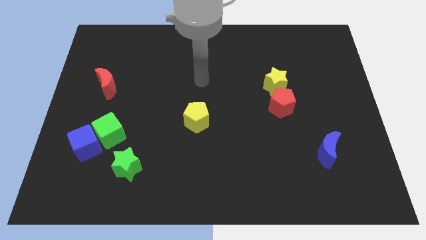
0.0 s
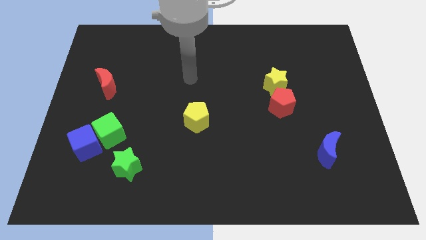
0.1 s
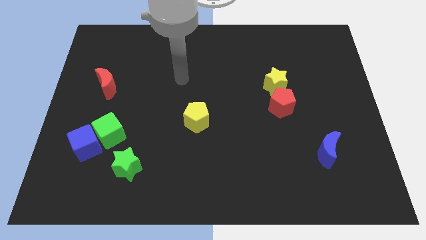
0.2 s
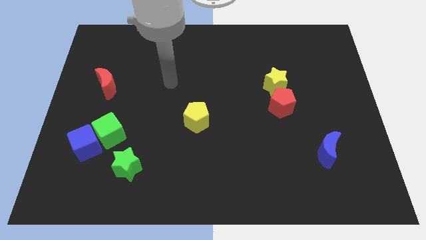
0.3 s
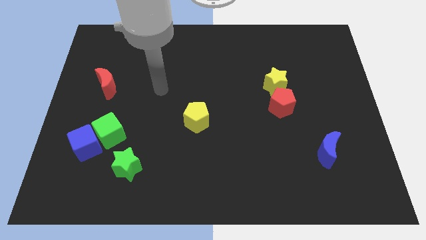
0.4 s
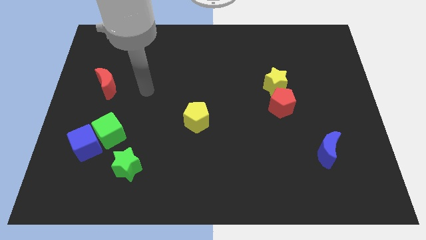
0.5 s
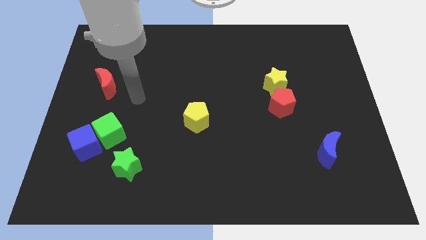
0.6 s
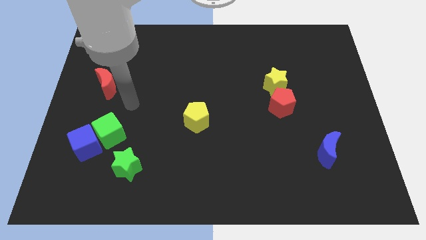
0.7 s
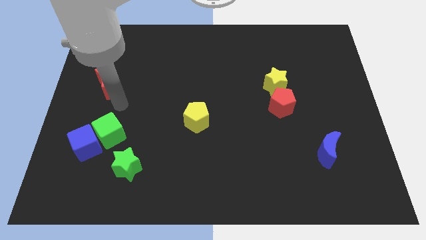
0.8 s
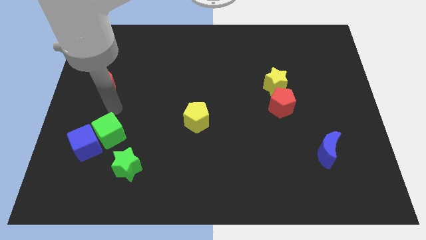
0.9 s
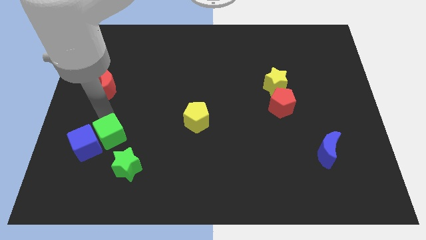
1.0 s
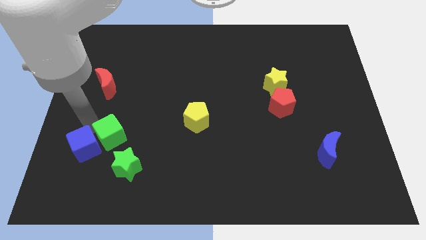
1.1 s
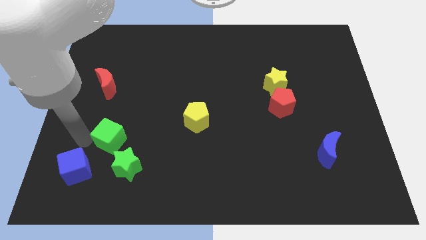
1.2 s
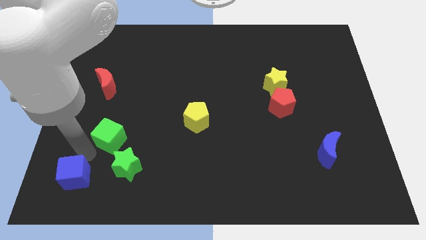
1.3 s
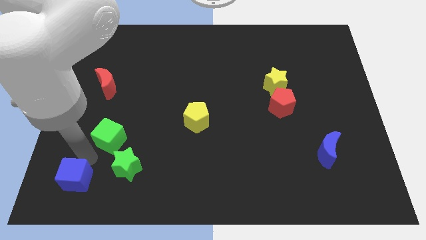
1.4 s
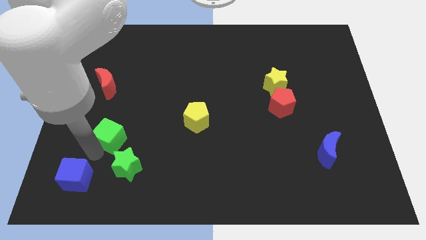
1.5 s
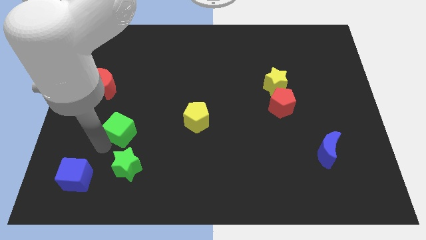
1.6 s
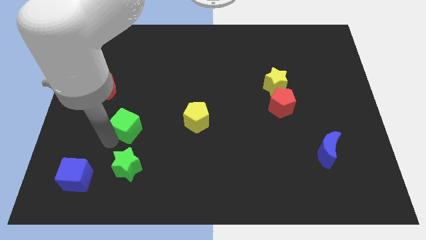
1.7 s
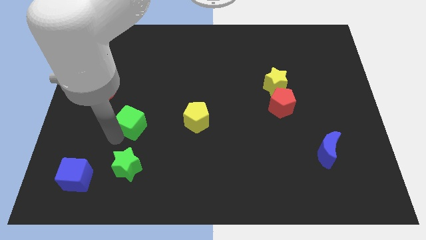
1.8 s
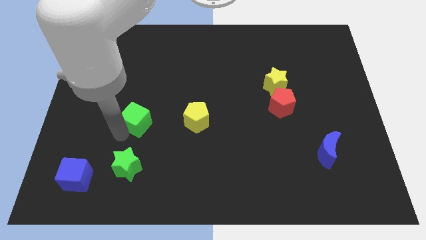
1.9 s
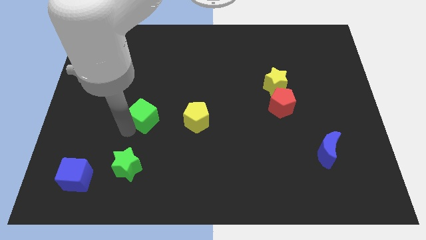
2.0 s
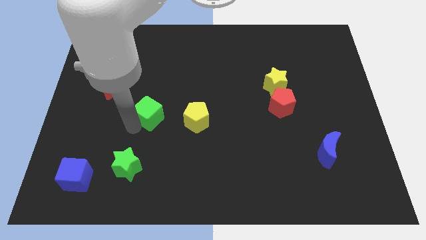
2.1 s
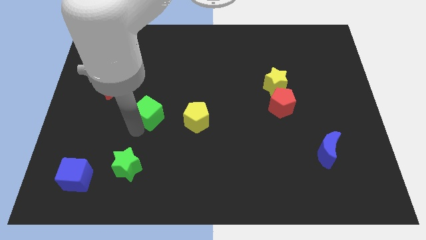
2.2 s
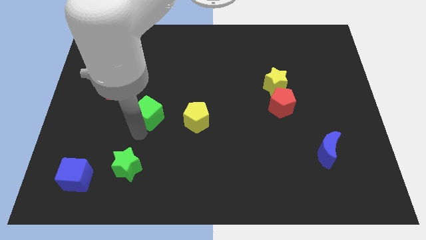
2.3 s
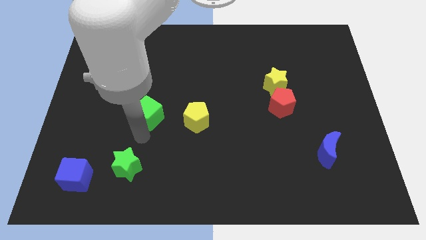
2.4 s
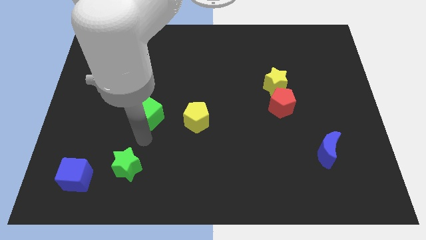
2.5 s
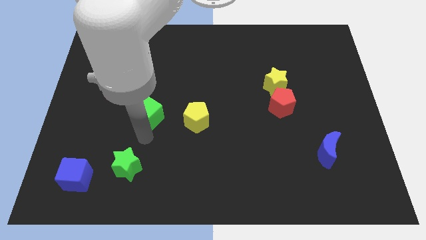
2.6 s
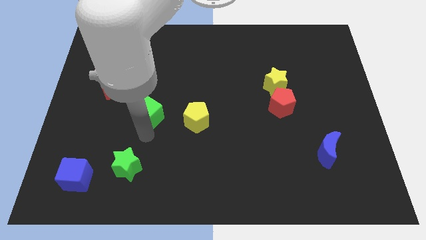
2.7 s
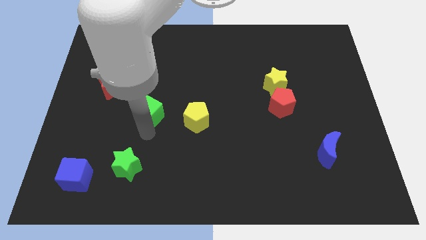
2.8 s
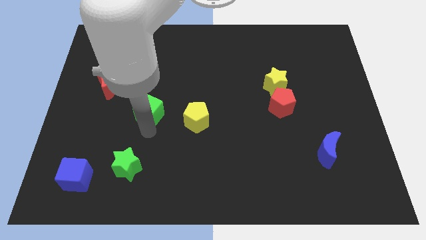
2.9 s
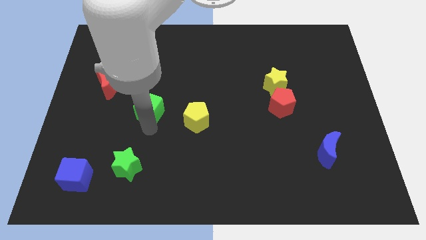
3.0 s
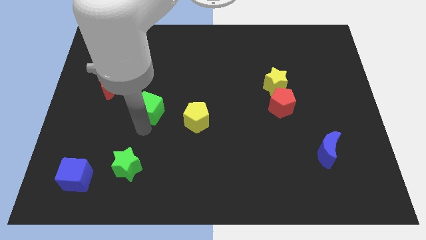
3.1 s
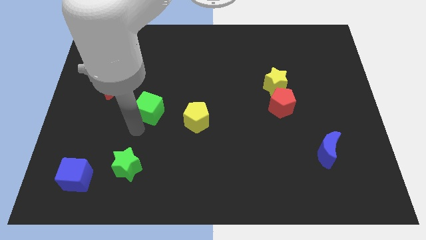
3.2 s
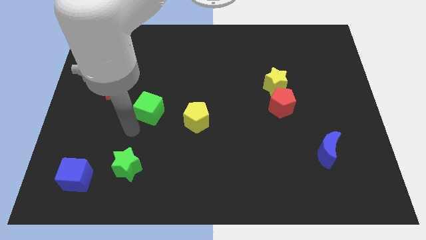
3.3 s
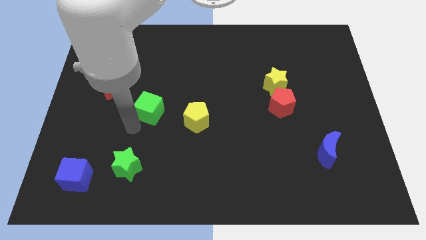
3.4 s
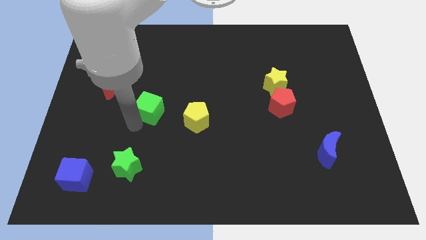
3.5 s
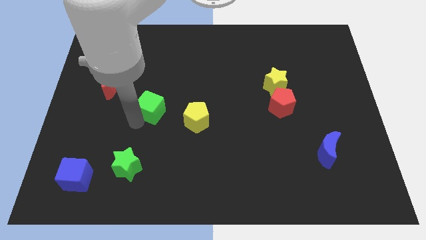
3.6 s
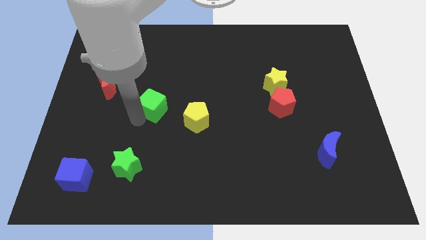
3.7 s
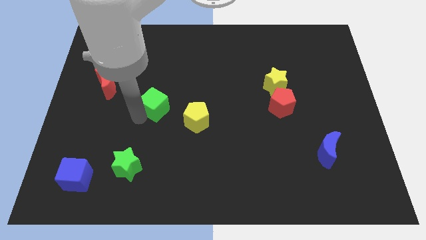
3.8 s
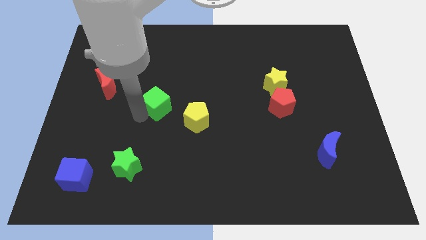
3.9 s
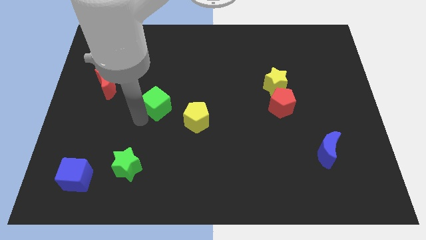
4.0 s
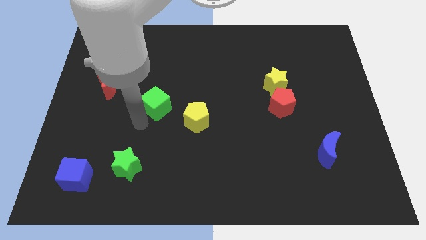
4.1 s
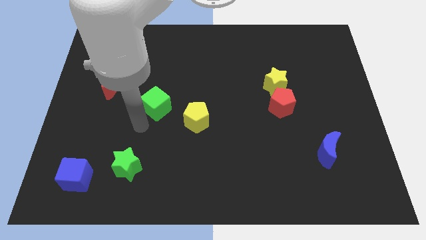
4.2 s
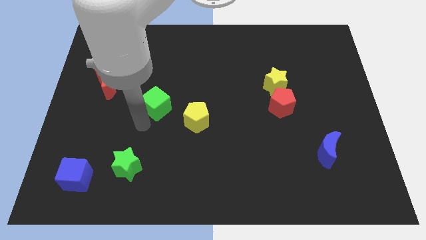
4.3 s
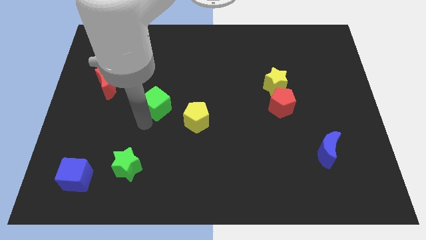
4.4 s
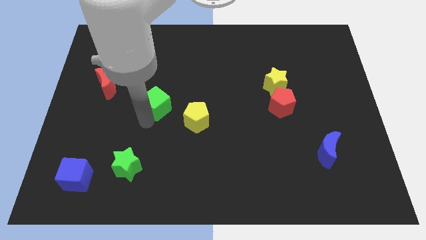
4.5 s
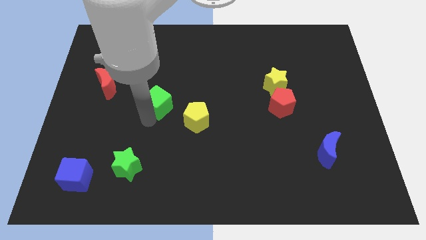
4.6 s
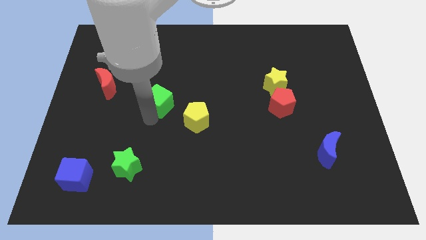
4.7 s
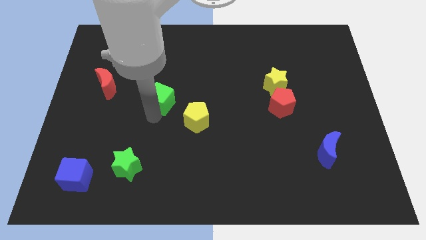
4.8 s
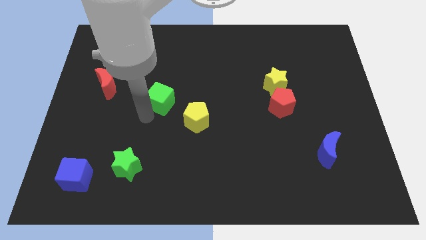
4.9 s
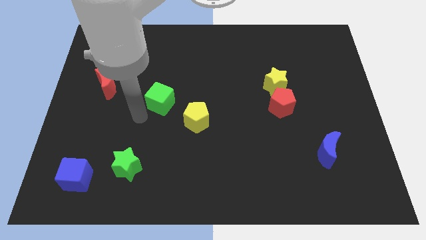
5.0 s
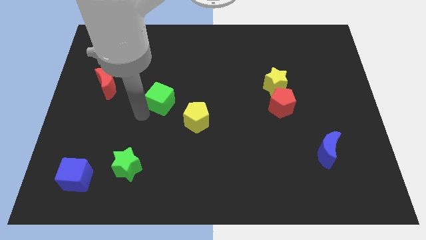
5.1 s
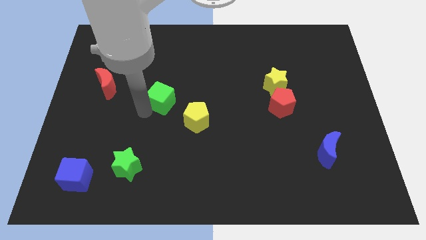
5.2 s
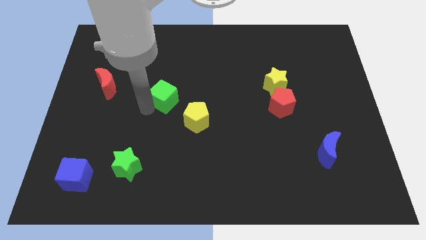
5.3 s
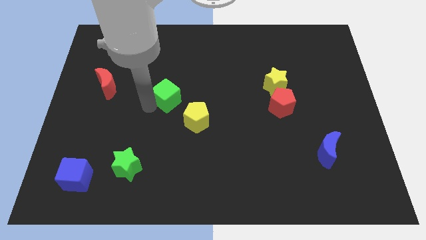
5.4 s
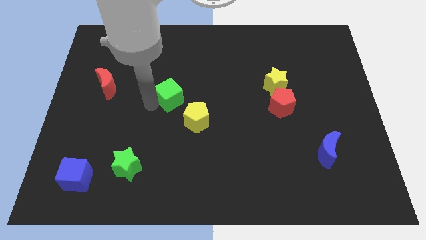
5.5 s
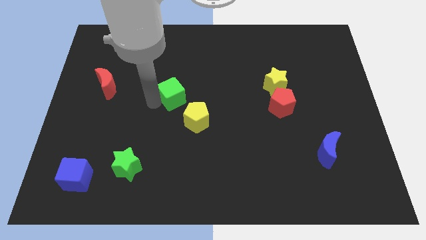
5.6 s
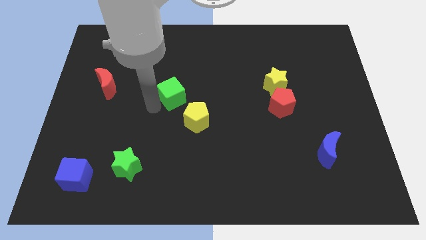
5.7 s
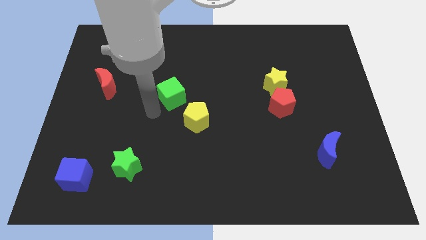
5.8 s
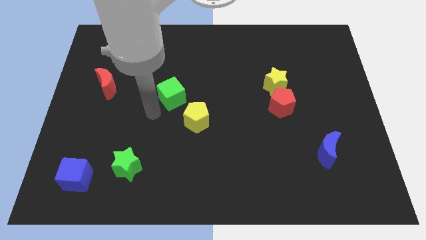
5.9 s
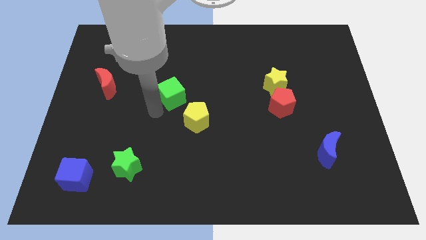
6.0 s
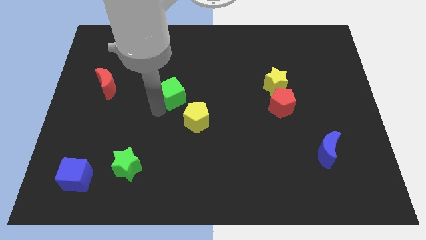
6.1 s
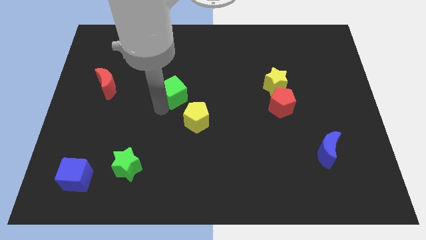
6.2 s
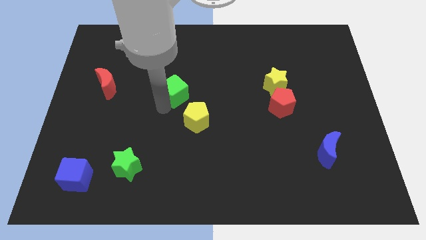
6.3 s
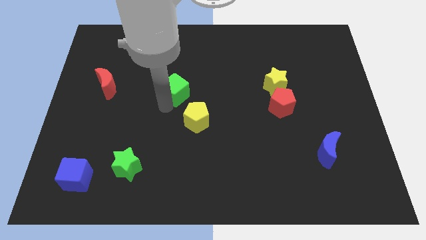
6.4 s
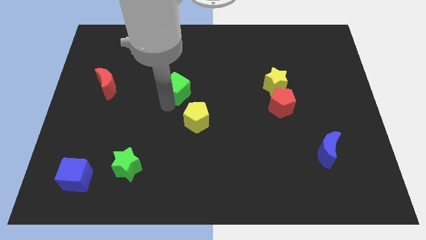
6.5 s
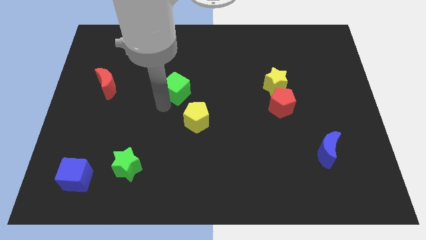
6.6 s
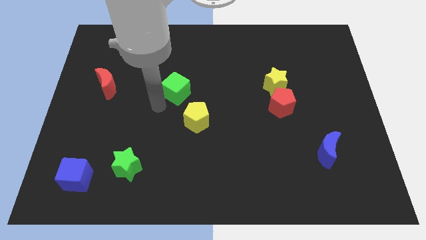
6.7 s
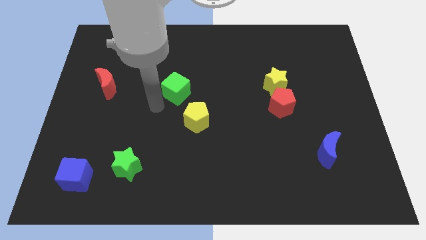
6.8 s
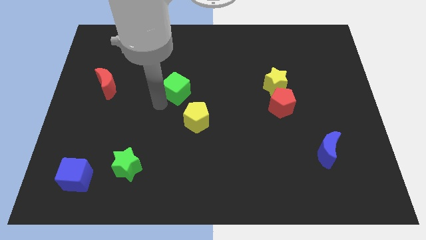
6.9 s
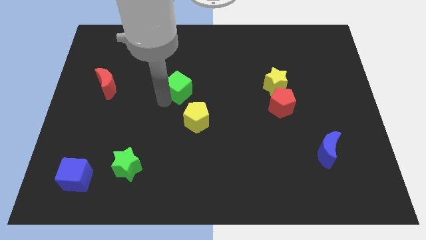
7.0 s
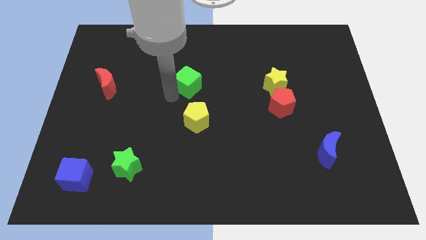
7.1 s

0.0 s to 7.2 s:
slide the green cube upwards and then to the right

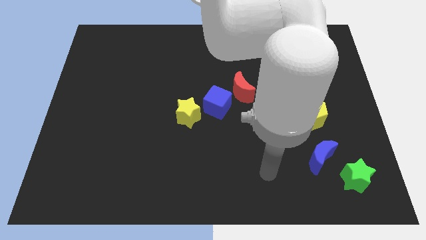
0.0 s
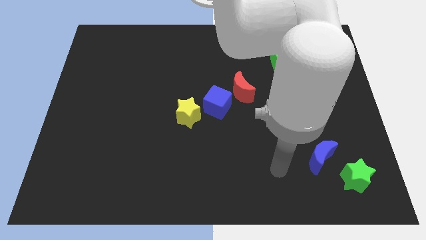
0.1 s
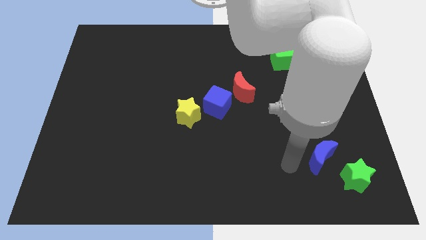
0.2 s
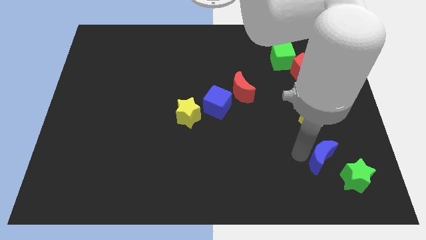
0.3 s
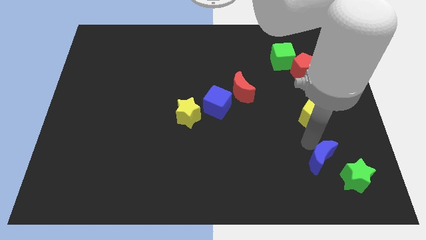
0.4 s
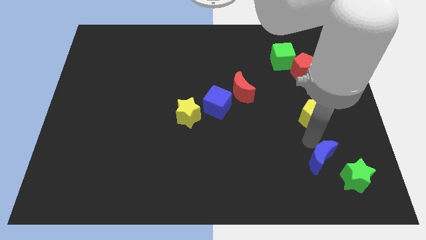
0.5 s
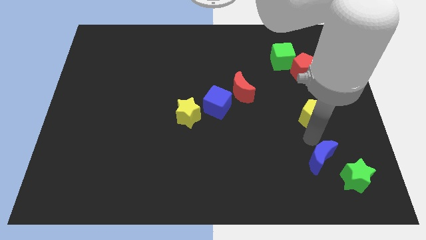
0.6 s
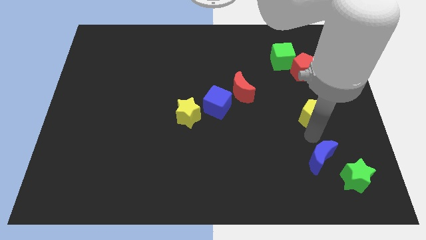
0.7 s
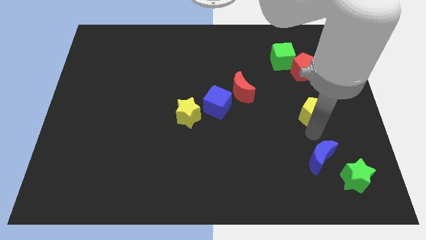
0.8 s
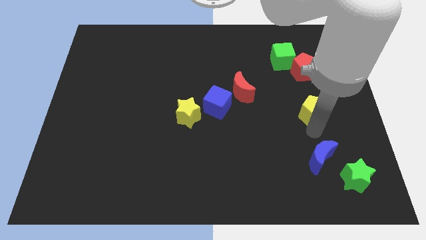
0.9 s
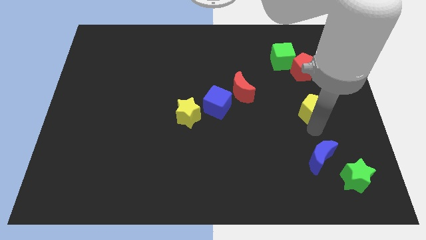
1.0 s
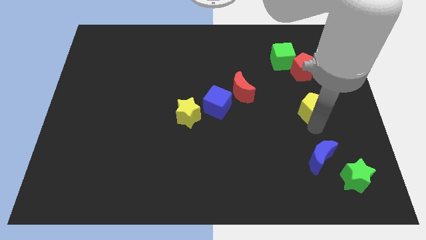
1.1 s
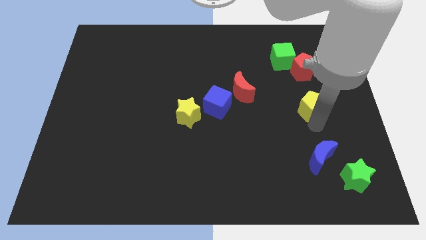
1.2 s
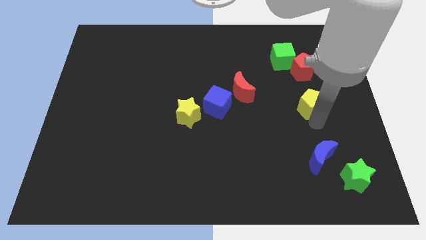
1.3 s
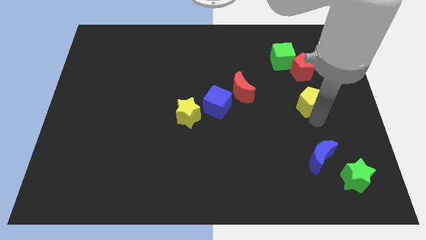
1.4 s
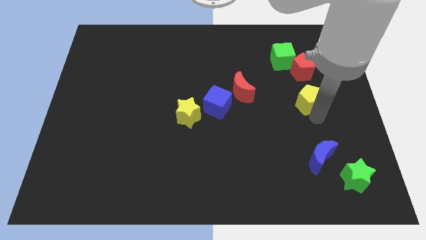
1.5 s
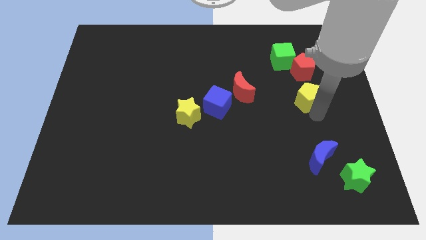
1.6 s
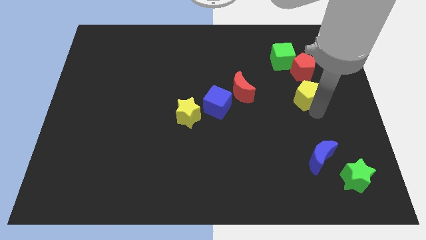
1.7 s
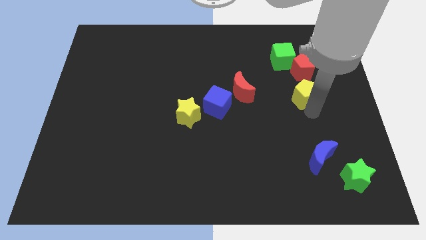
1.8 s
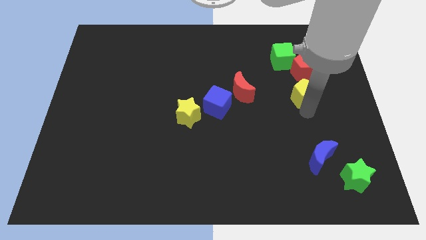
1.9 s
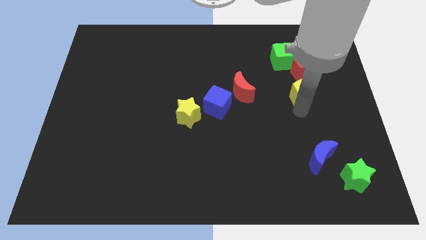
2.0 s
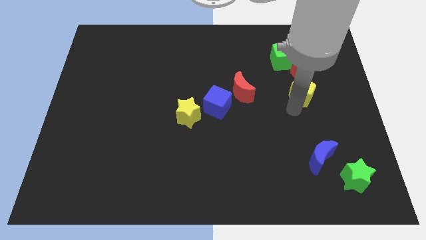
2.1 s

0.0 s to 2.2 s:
push the yellow pentagon a bit upwards
